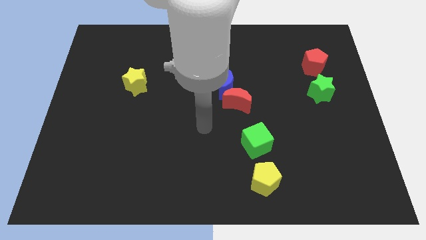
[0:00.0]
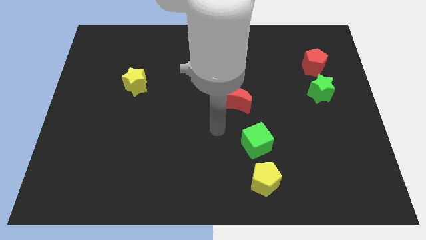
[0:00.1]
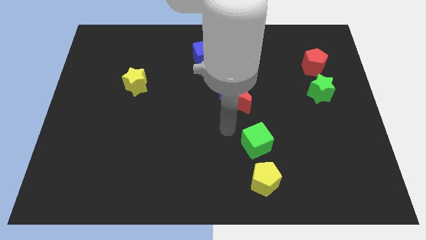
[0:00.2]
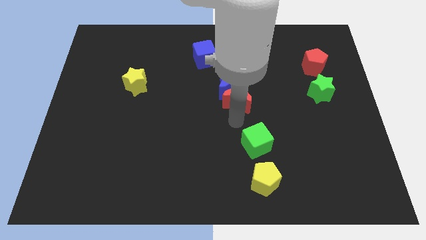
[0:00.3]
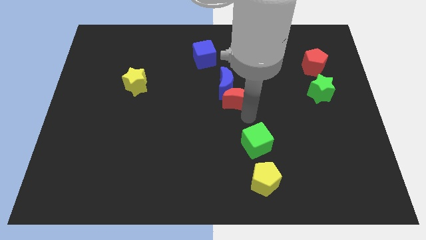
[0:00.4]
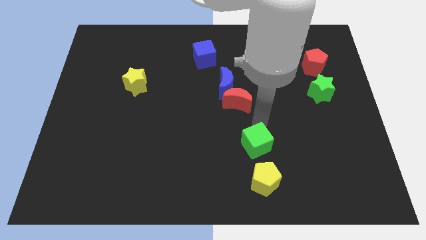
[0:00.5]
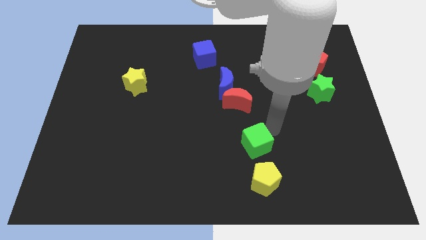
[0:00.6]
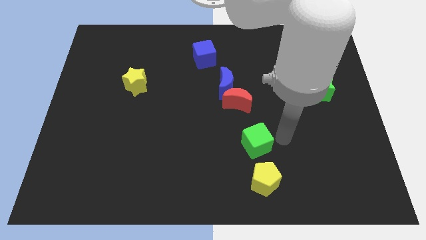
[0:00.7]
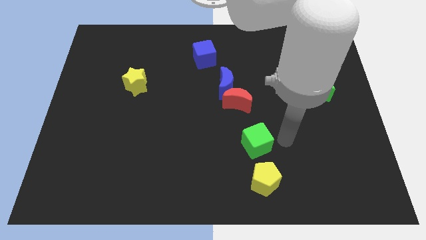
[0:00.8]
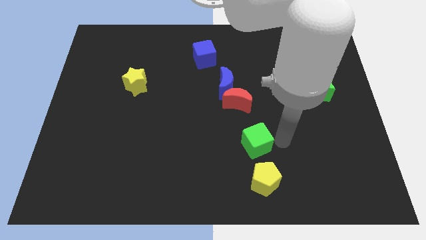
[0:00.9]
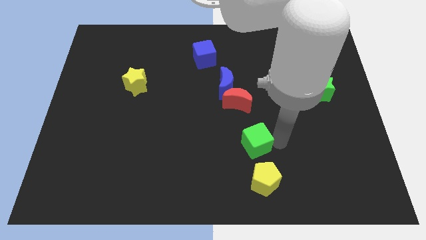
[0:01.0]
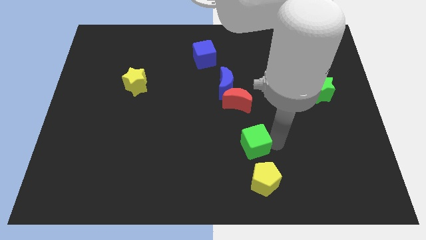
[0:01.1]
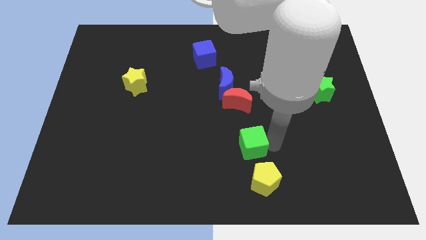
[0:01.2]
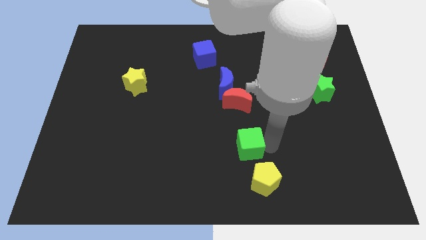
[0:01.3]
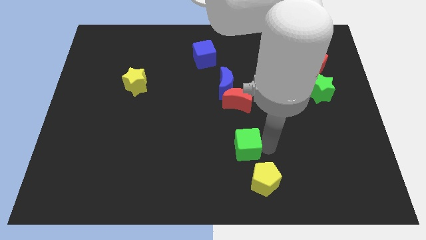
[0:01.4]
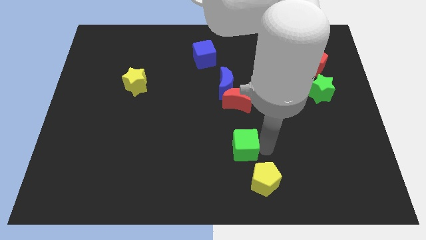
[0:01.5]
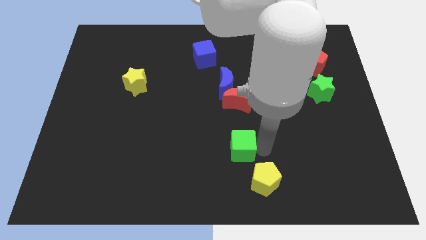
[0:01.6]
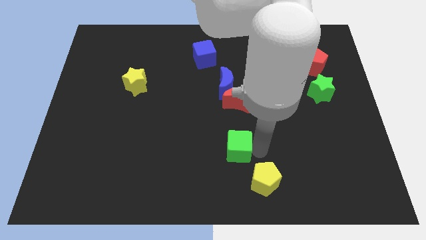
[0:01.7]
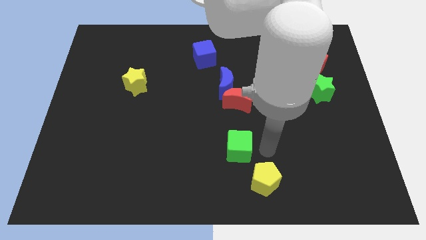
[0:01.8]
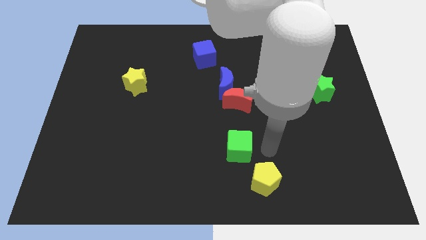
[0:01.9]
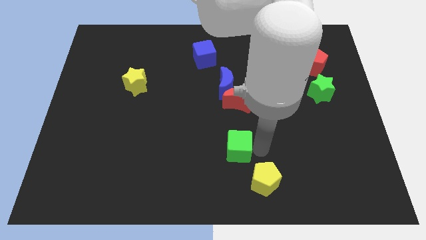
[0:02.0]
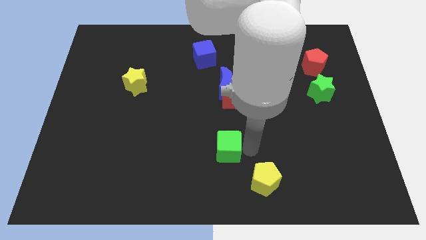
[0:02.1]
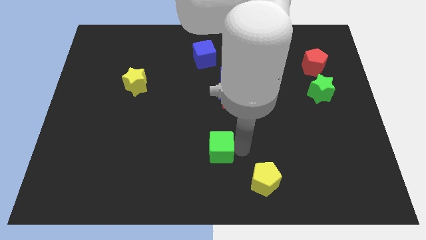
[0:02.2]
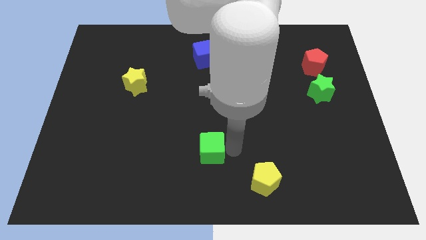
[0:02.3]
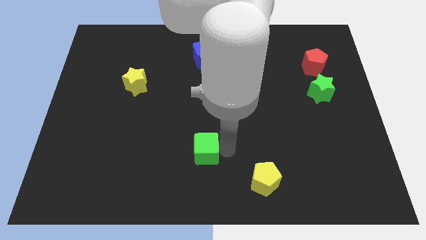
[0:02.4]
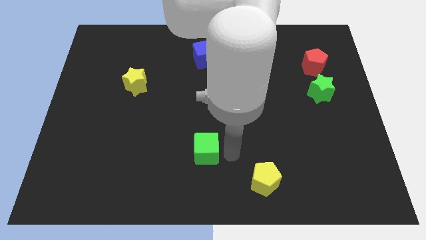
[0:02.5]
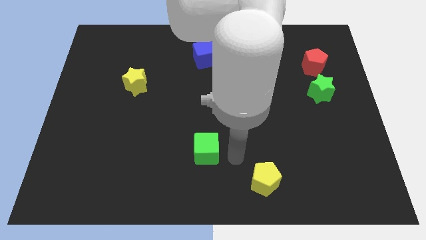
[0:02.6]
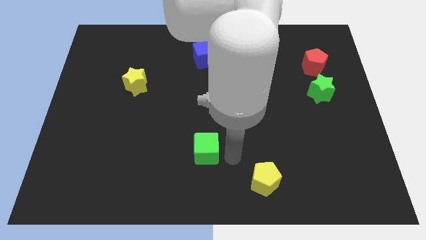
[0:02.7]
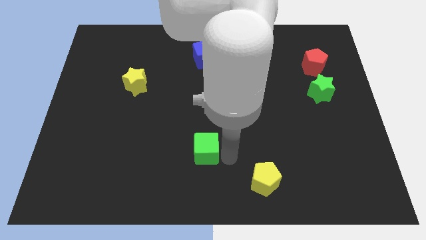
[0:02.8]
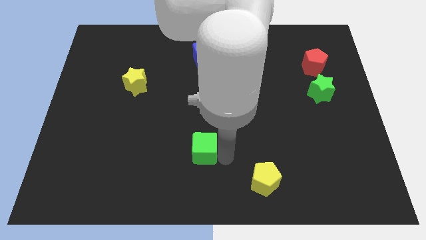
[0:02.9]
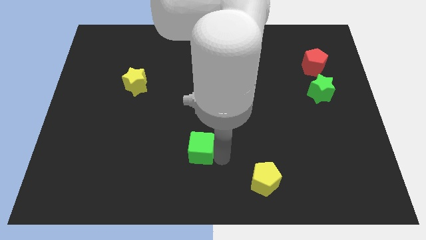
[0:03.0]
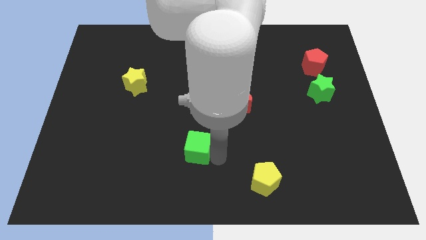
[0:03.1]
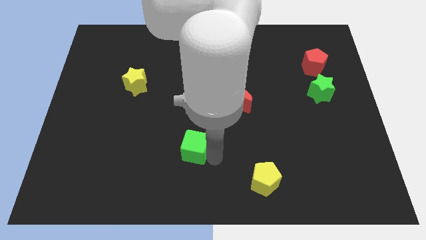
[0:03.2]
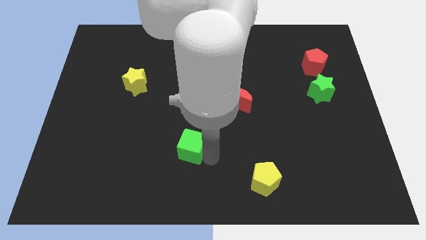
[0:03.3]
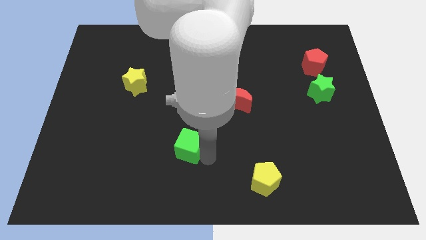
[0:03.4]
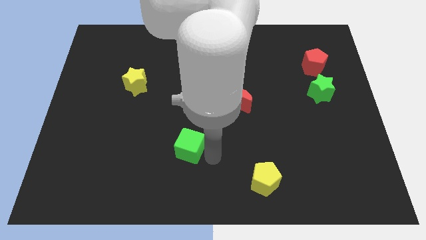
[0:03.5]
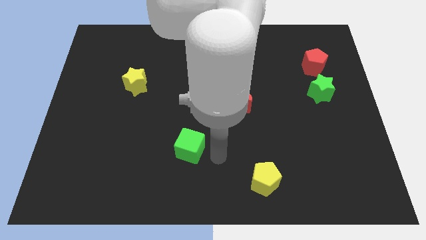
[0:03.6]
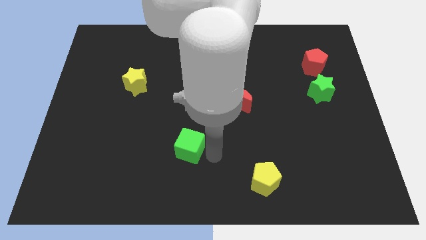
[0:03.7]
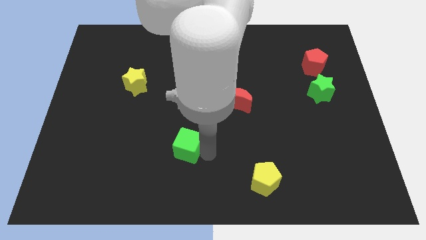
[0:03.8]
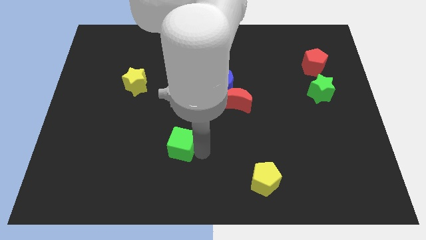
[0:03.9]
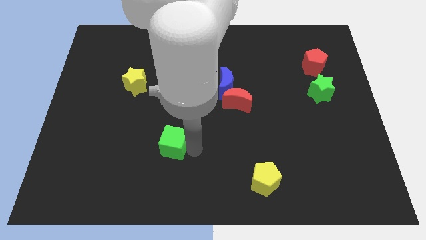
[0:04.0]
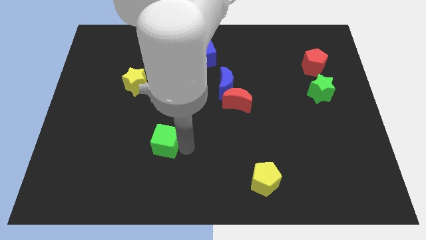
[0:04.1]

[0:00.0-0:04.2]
slide the green cube left

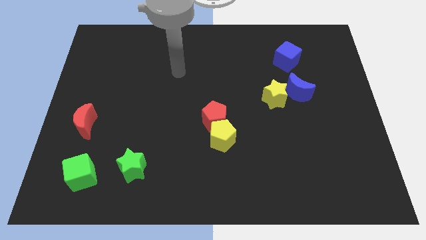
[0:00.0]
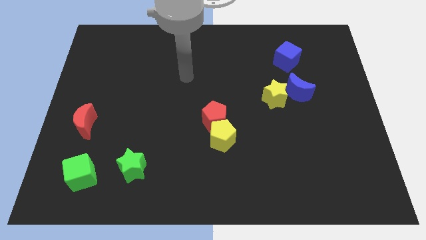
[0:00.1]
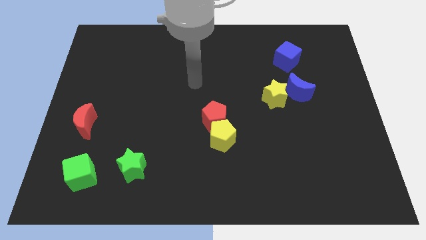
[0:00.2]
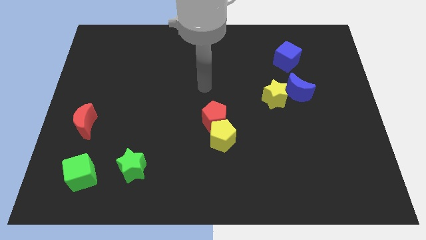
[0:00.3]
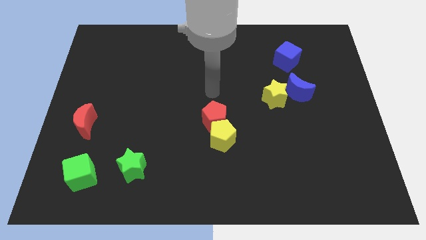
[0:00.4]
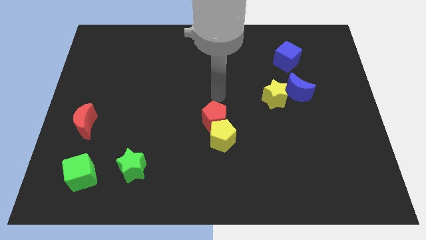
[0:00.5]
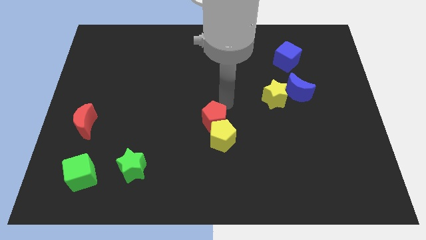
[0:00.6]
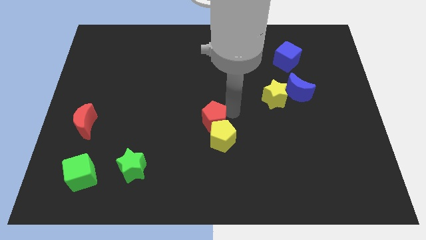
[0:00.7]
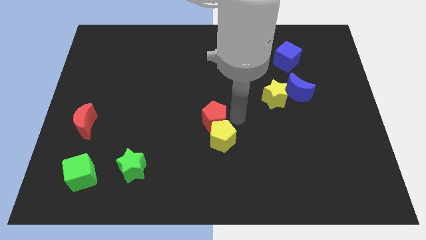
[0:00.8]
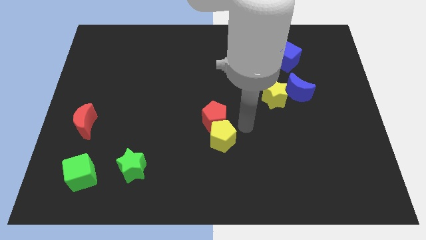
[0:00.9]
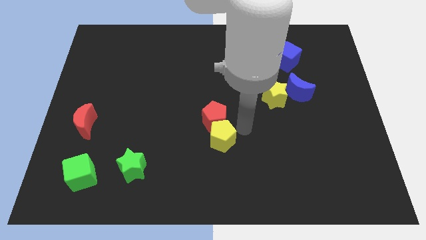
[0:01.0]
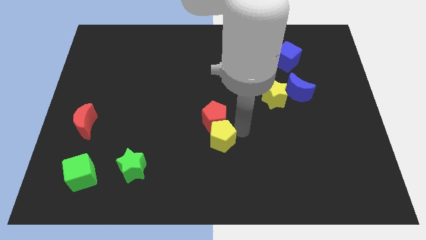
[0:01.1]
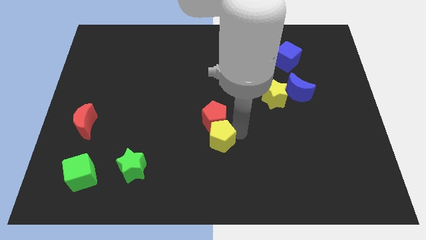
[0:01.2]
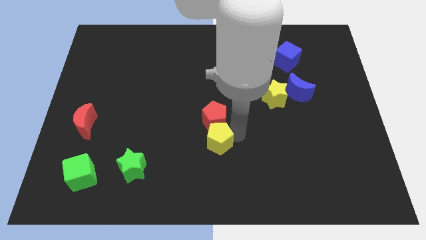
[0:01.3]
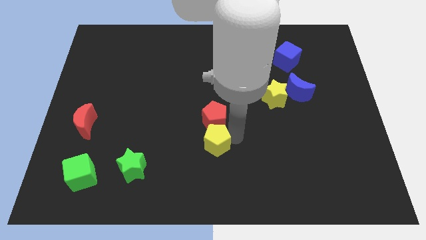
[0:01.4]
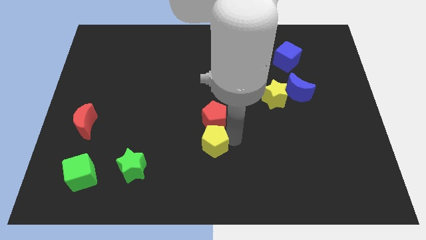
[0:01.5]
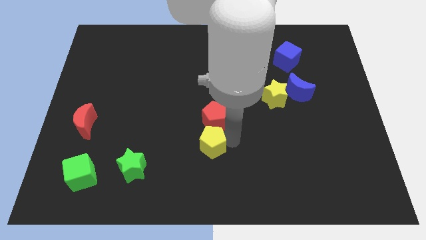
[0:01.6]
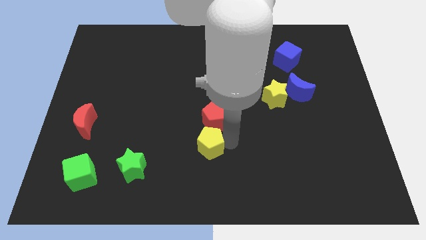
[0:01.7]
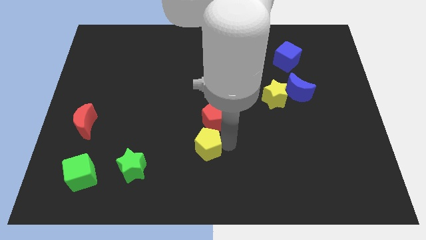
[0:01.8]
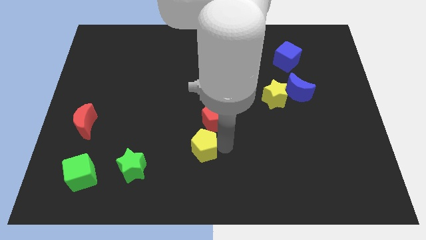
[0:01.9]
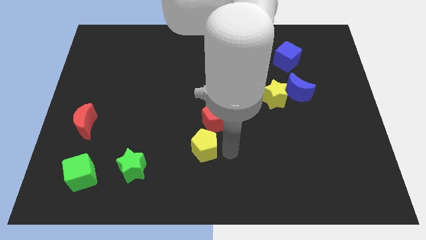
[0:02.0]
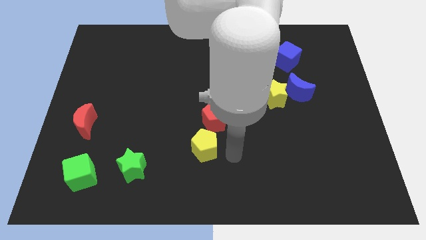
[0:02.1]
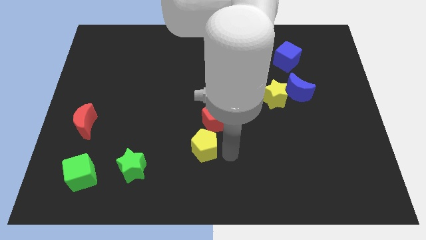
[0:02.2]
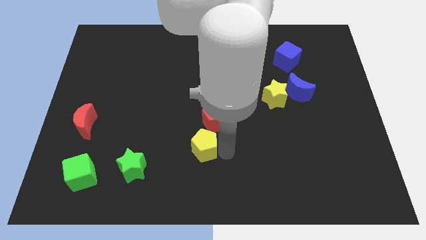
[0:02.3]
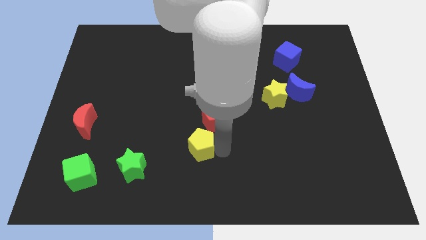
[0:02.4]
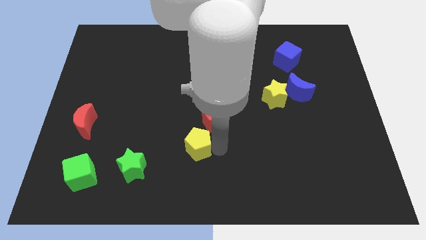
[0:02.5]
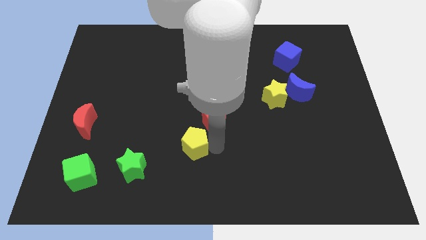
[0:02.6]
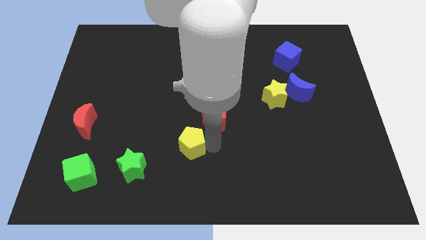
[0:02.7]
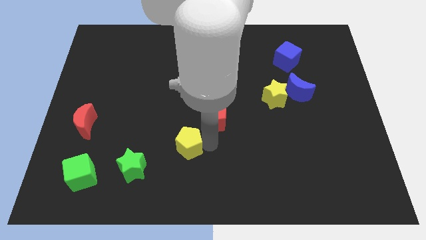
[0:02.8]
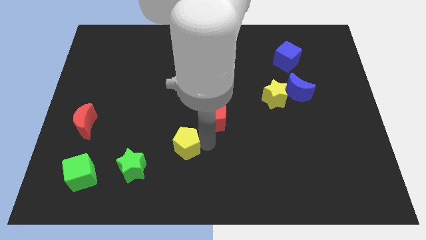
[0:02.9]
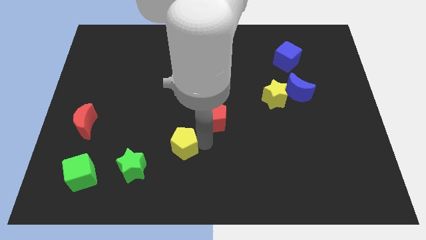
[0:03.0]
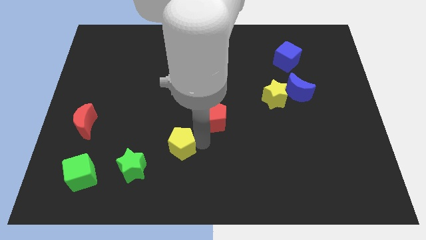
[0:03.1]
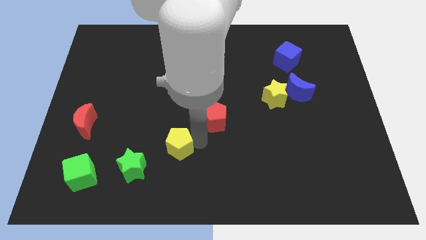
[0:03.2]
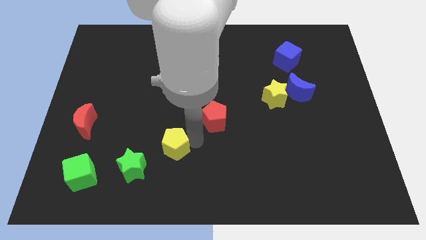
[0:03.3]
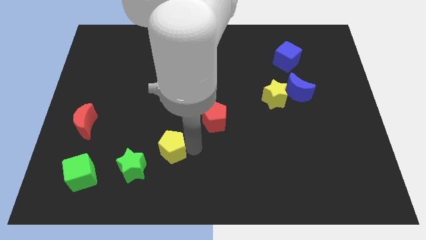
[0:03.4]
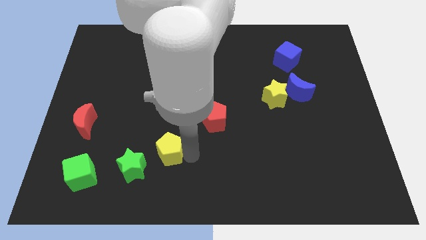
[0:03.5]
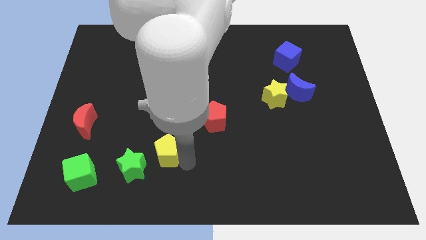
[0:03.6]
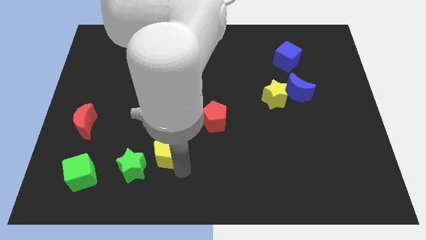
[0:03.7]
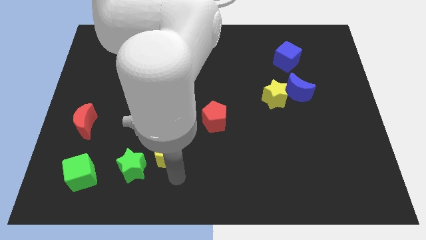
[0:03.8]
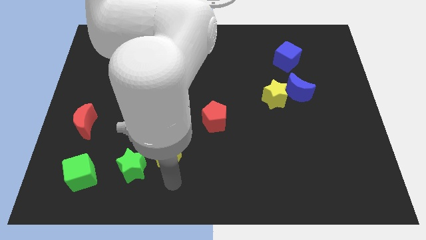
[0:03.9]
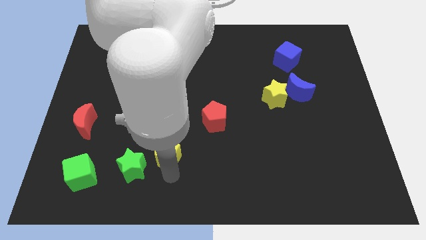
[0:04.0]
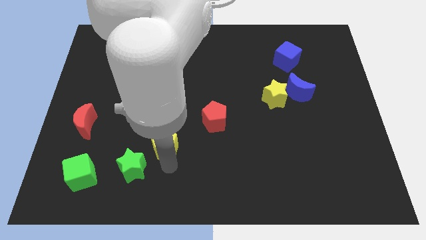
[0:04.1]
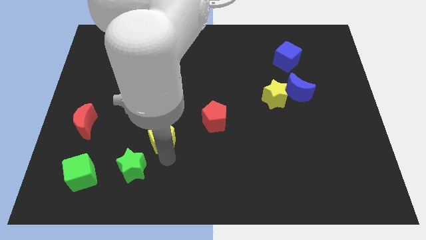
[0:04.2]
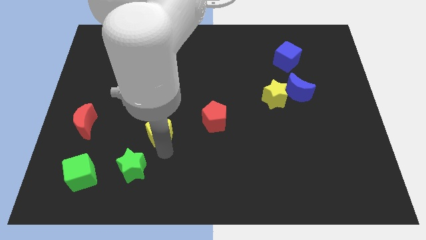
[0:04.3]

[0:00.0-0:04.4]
slide the yellow pentagon upwards and left diagonally a bit
